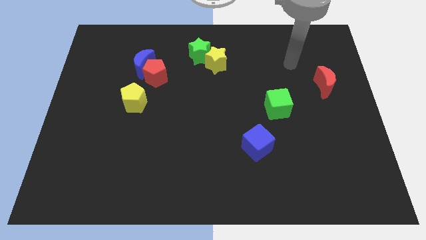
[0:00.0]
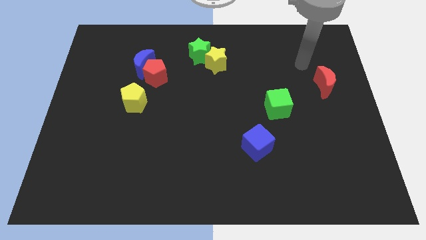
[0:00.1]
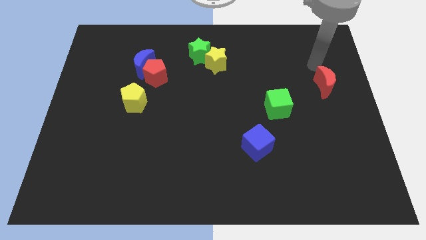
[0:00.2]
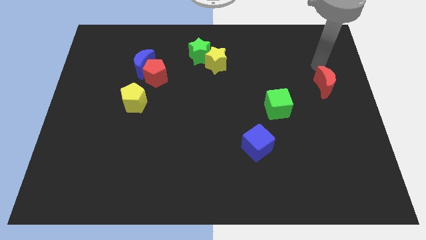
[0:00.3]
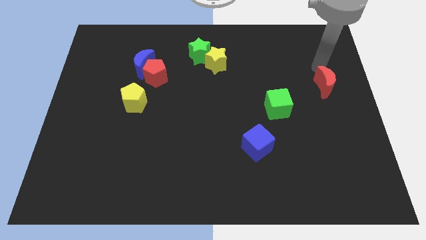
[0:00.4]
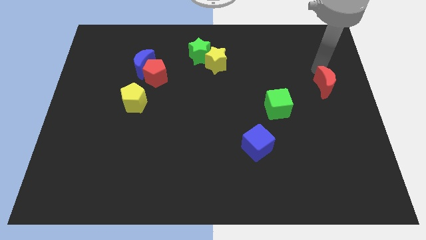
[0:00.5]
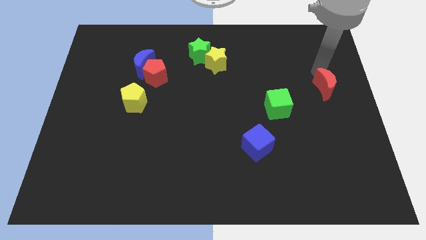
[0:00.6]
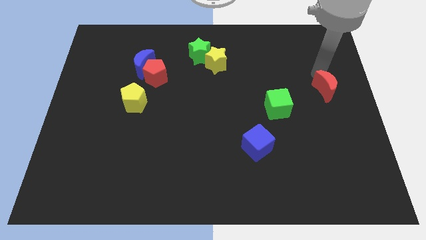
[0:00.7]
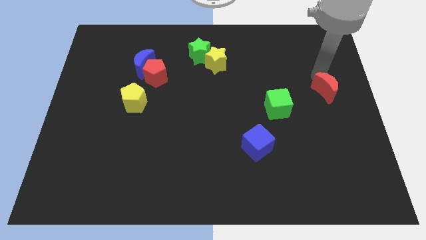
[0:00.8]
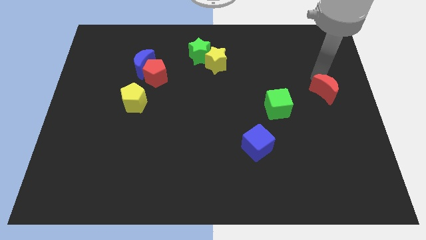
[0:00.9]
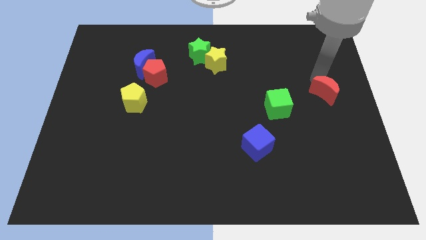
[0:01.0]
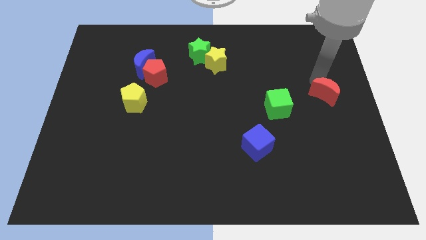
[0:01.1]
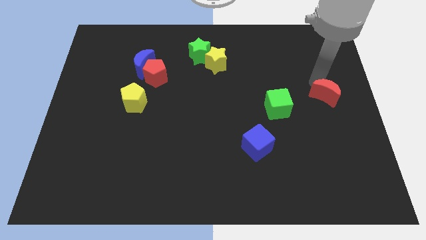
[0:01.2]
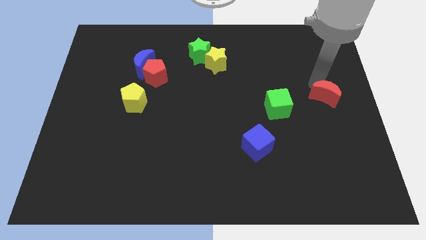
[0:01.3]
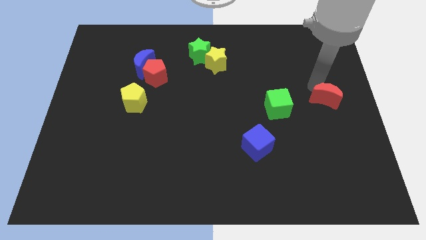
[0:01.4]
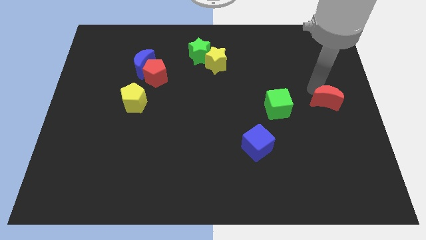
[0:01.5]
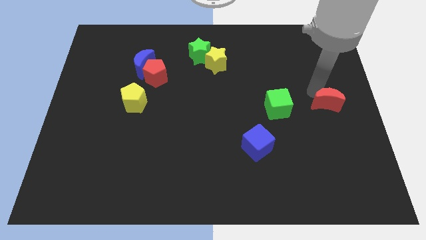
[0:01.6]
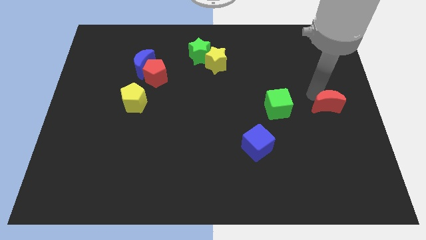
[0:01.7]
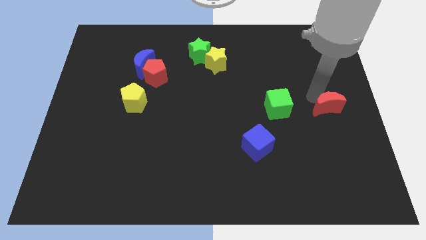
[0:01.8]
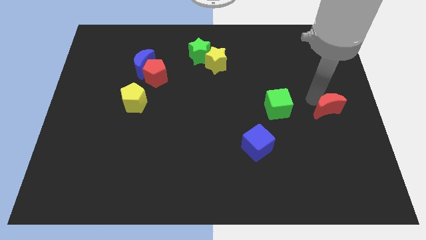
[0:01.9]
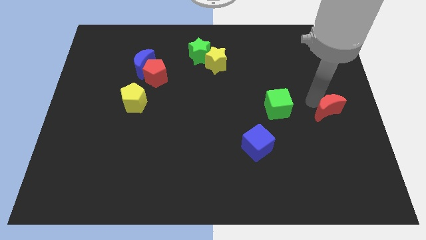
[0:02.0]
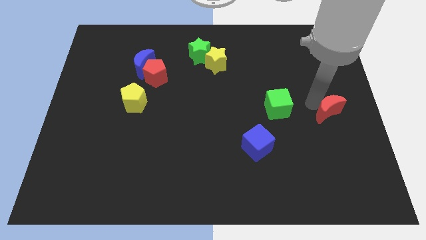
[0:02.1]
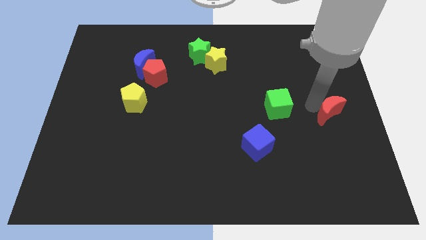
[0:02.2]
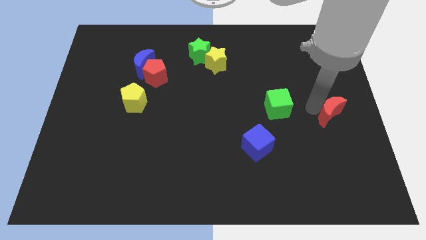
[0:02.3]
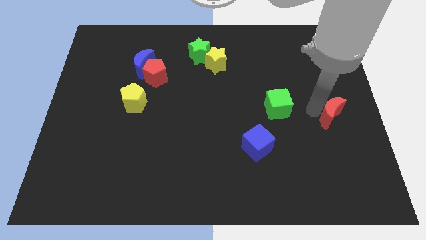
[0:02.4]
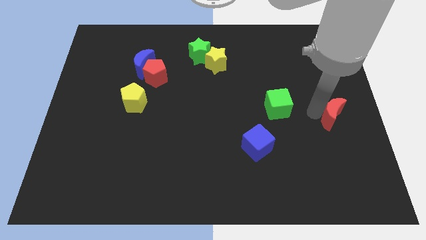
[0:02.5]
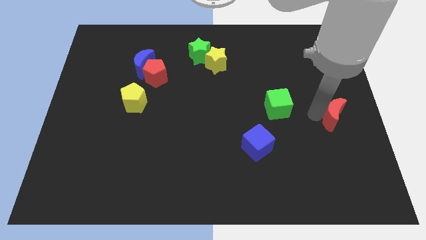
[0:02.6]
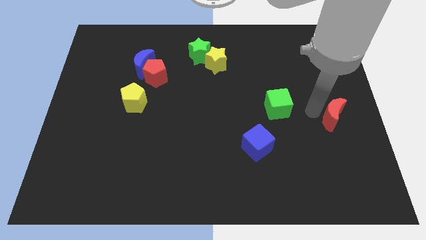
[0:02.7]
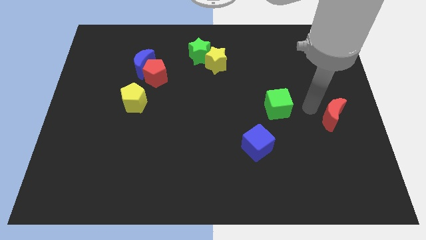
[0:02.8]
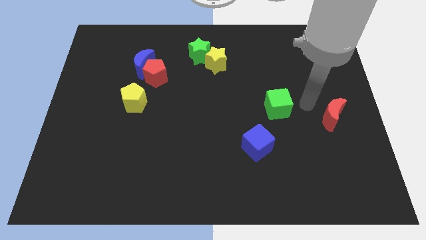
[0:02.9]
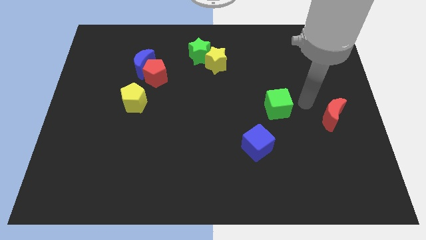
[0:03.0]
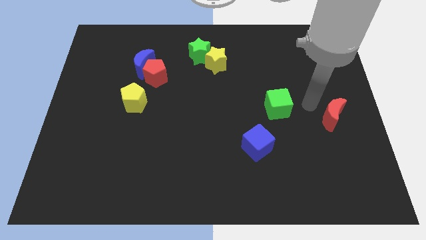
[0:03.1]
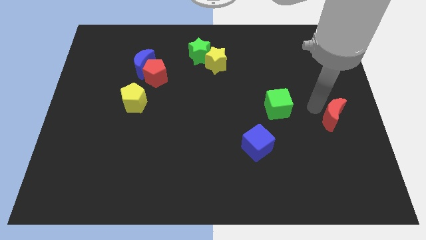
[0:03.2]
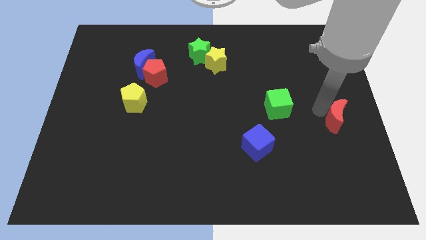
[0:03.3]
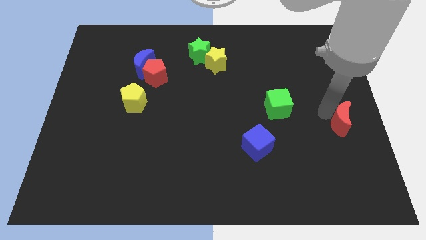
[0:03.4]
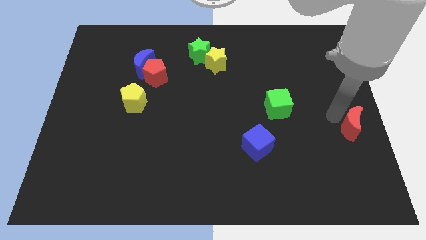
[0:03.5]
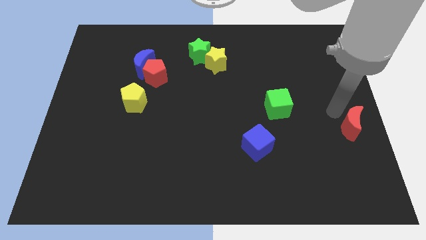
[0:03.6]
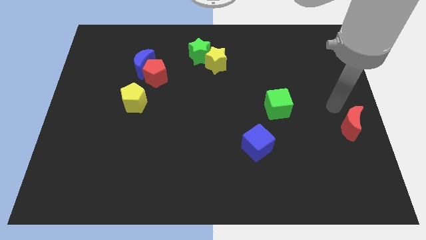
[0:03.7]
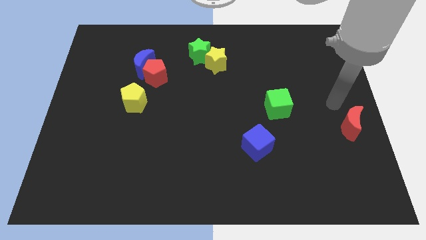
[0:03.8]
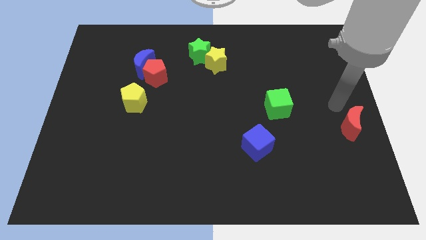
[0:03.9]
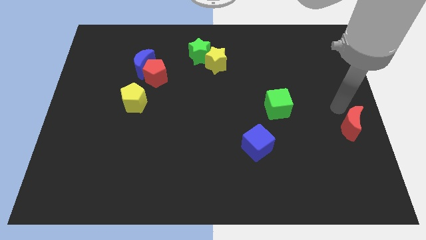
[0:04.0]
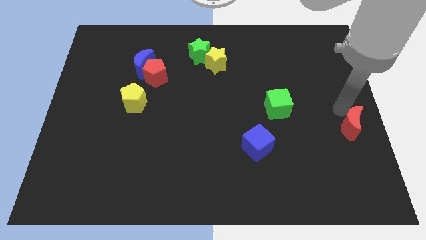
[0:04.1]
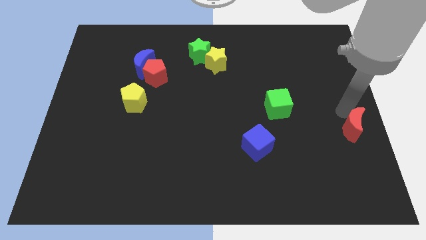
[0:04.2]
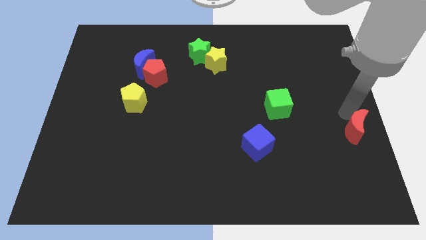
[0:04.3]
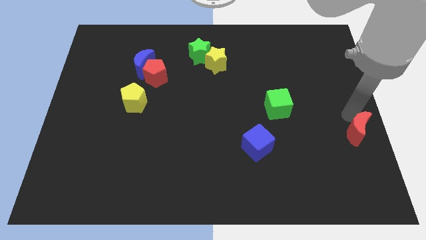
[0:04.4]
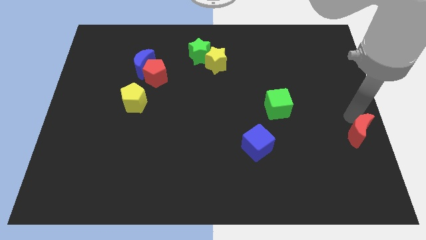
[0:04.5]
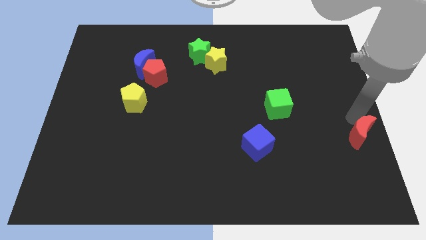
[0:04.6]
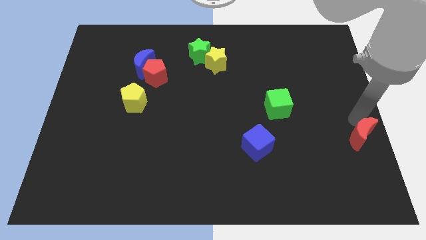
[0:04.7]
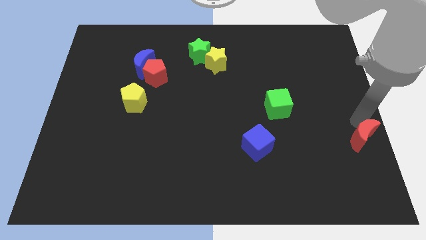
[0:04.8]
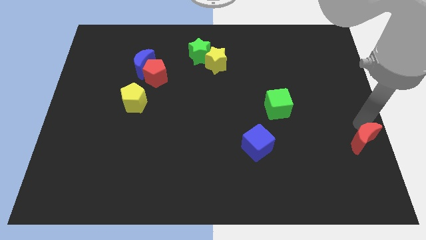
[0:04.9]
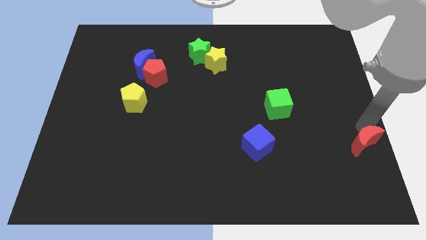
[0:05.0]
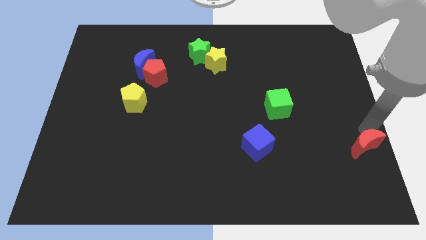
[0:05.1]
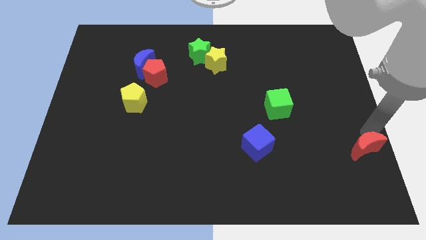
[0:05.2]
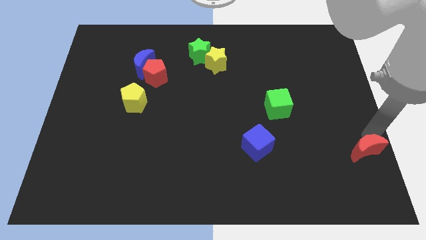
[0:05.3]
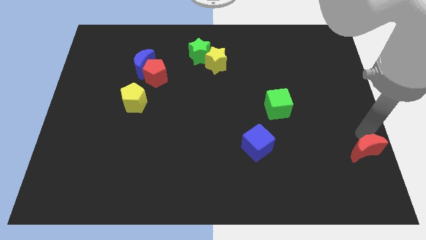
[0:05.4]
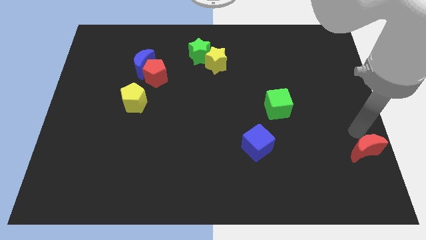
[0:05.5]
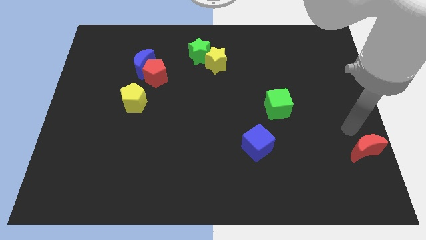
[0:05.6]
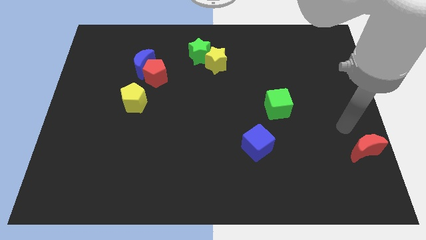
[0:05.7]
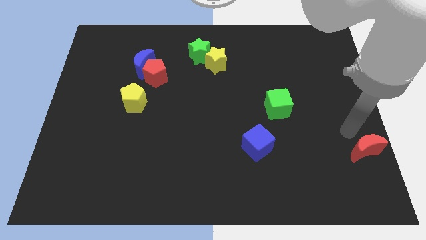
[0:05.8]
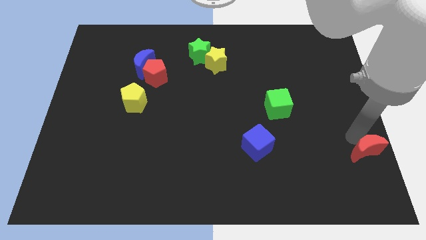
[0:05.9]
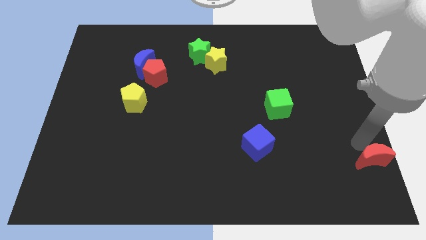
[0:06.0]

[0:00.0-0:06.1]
move the red moon to the bottom right

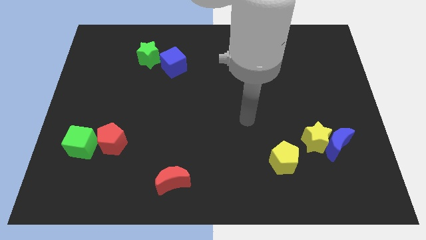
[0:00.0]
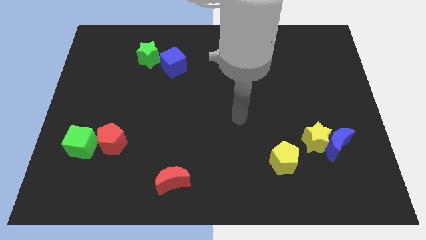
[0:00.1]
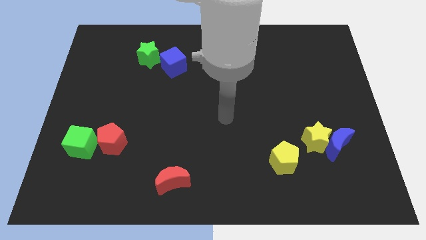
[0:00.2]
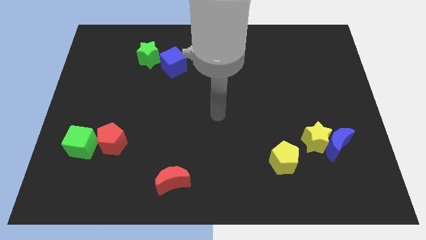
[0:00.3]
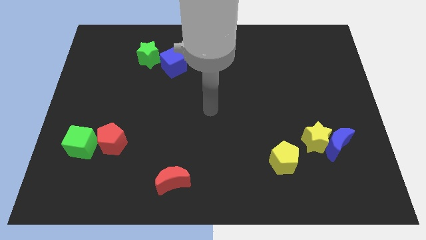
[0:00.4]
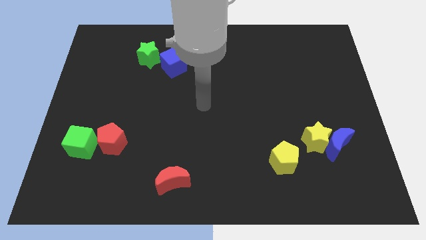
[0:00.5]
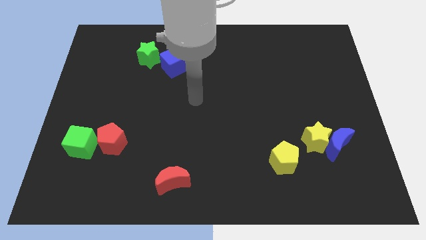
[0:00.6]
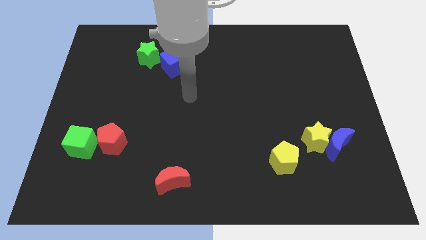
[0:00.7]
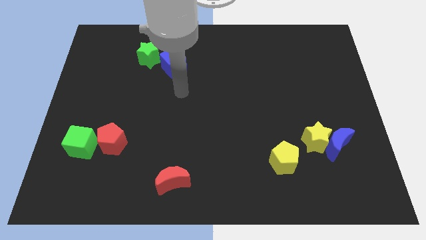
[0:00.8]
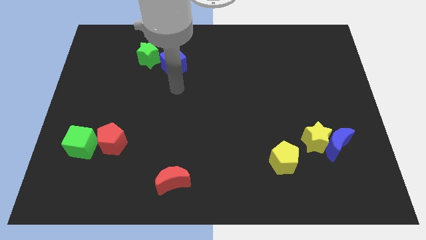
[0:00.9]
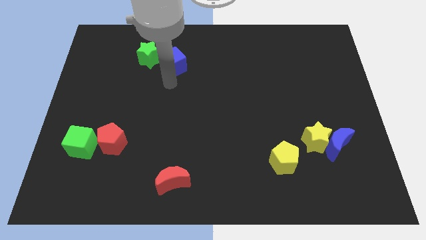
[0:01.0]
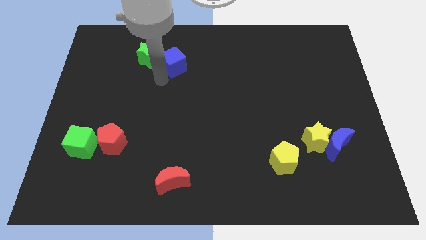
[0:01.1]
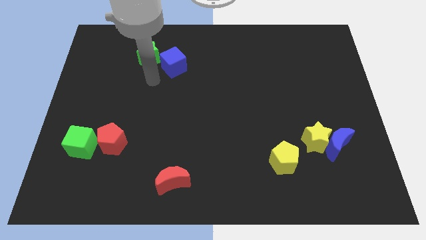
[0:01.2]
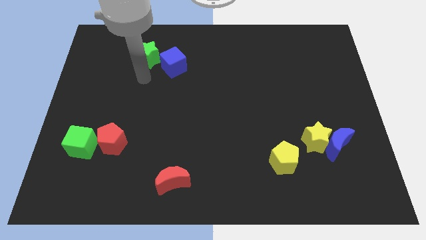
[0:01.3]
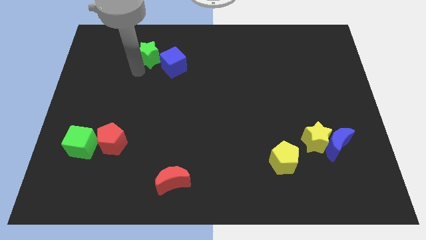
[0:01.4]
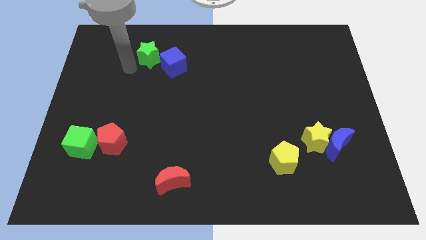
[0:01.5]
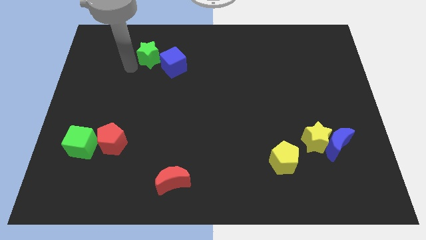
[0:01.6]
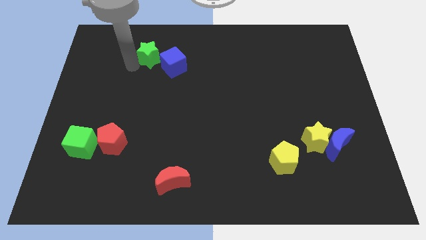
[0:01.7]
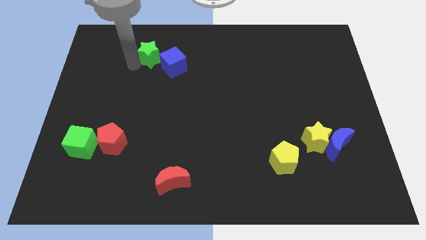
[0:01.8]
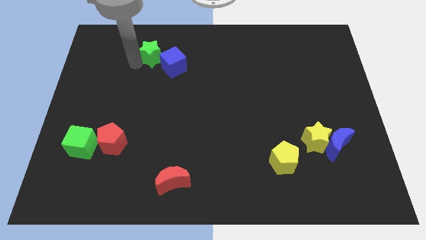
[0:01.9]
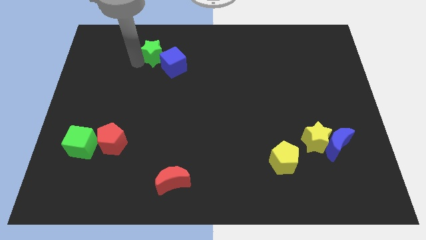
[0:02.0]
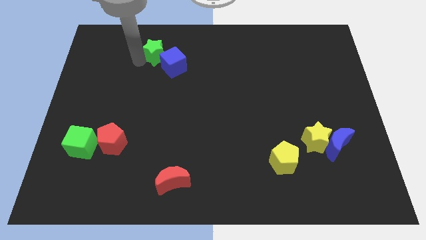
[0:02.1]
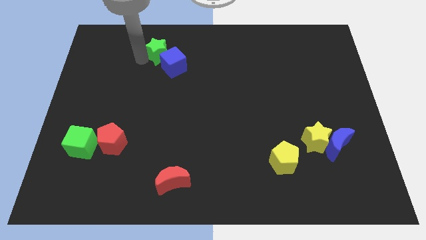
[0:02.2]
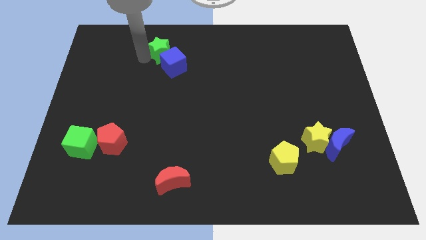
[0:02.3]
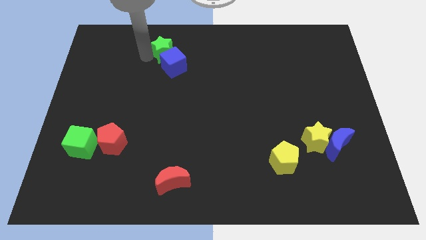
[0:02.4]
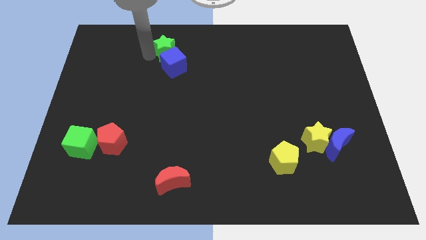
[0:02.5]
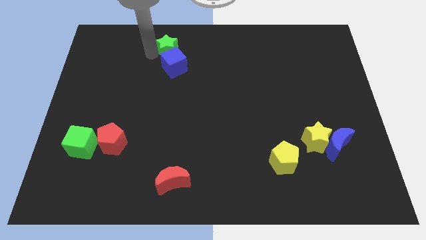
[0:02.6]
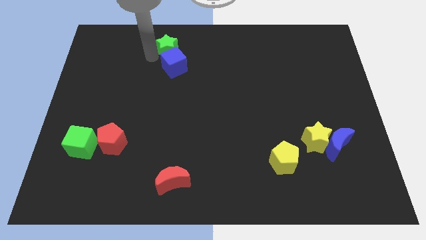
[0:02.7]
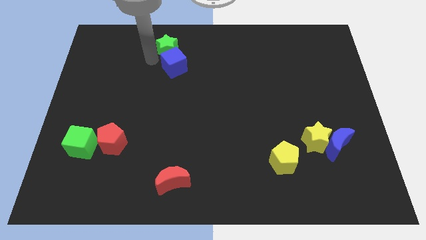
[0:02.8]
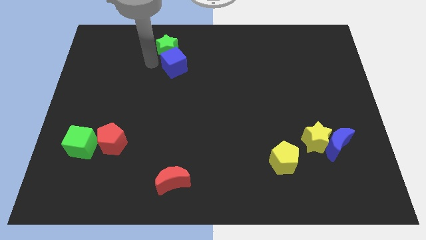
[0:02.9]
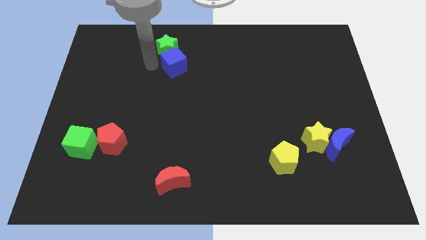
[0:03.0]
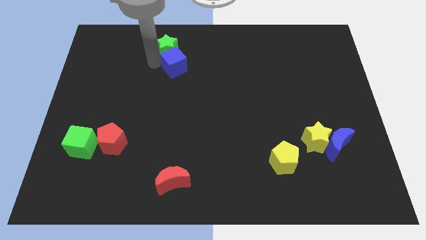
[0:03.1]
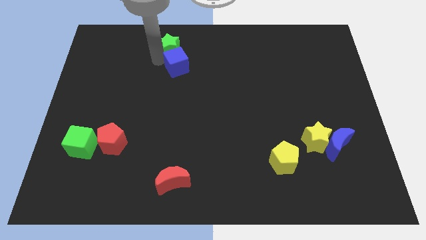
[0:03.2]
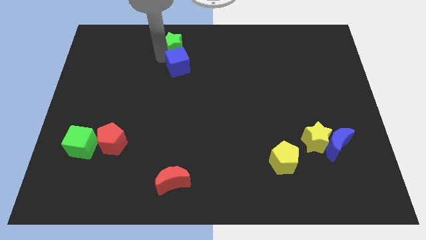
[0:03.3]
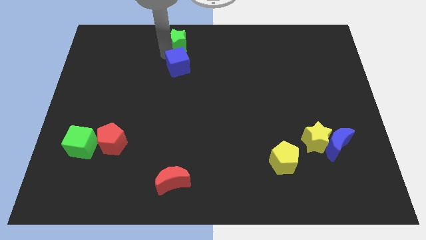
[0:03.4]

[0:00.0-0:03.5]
put the green star to the top side
